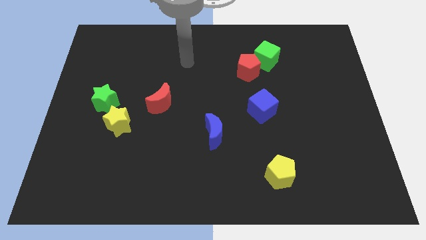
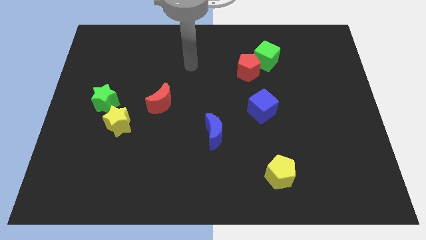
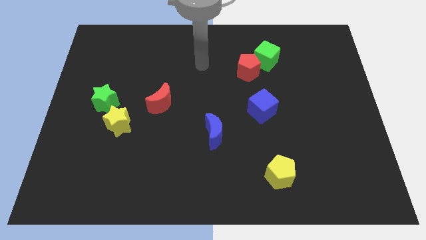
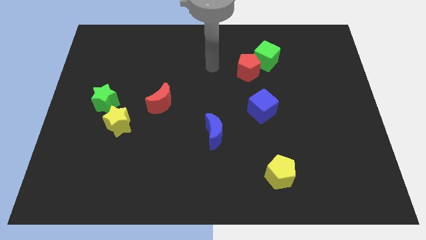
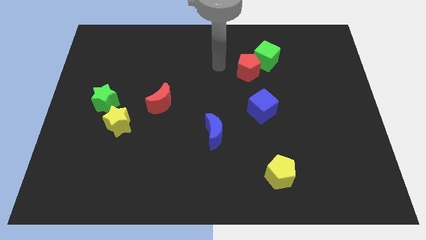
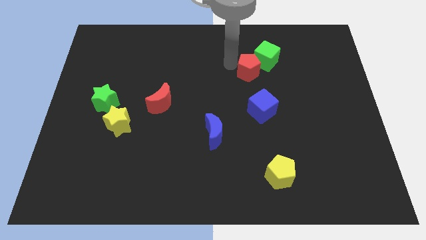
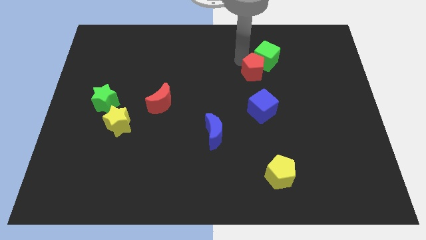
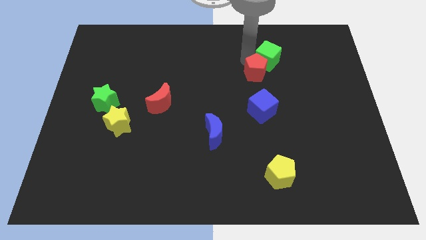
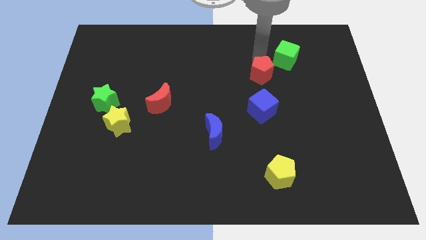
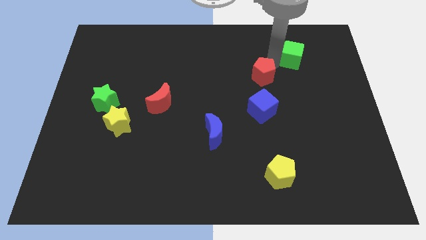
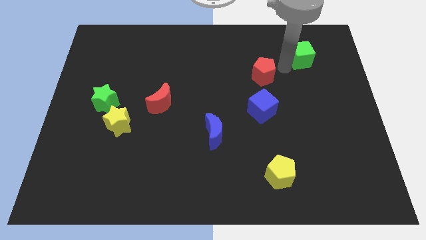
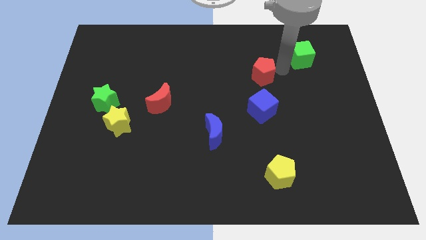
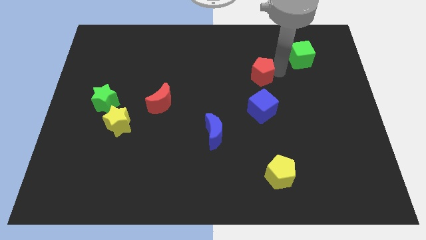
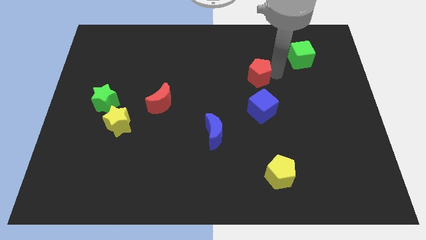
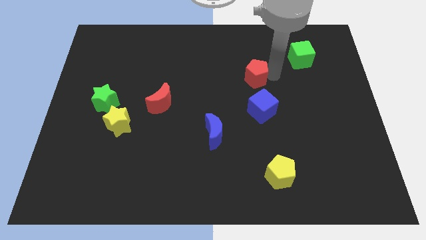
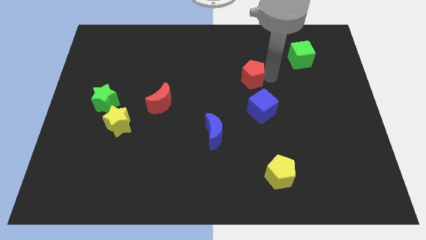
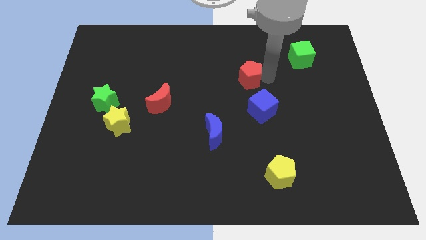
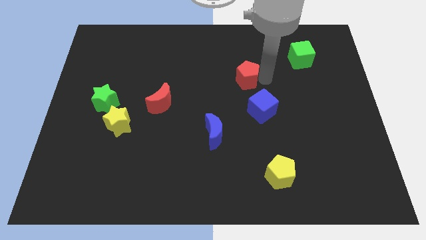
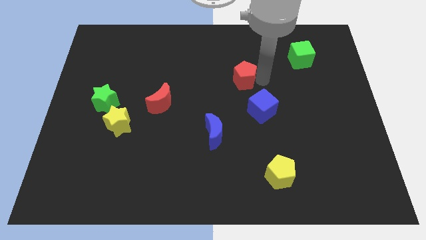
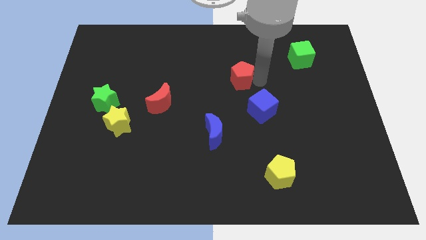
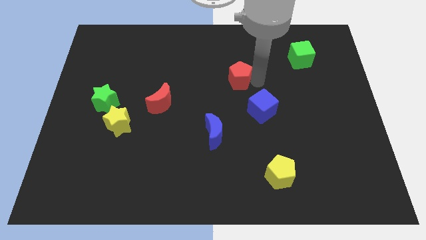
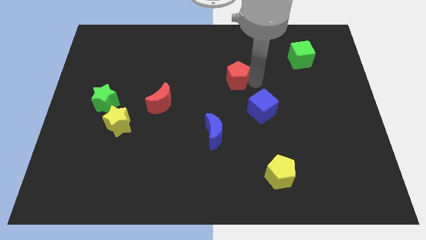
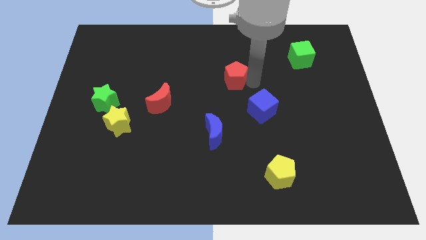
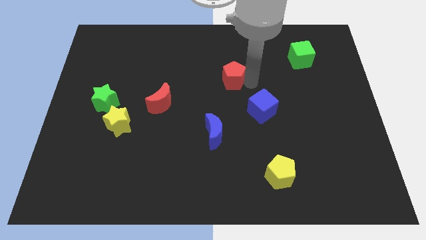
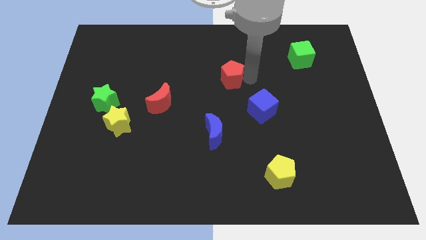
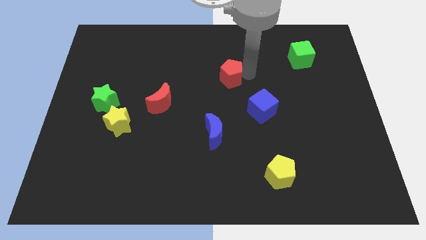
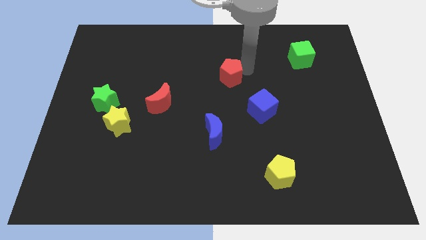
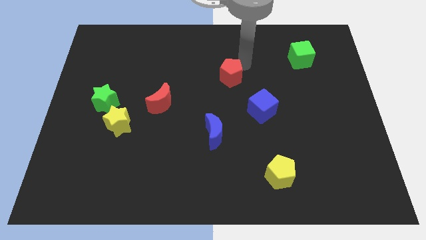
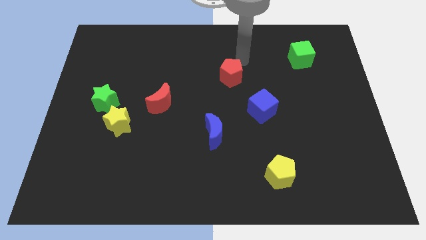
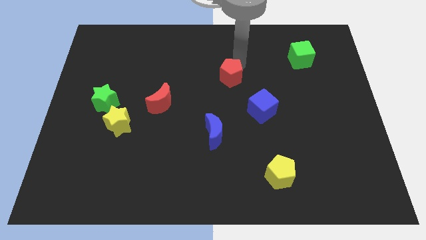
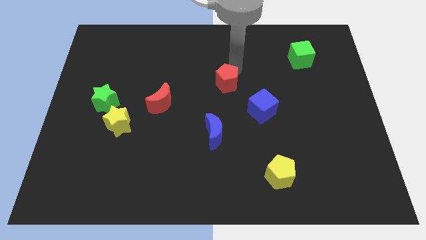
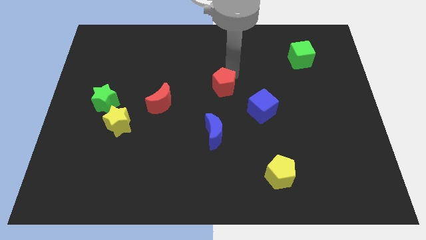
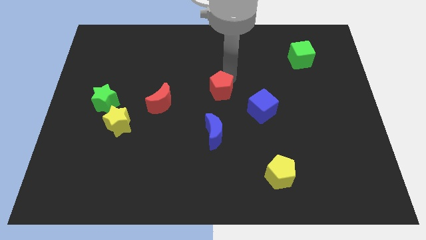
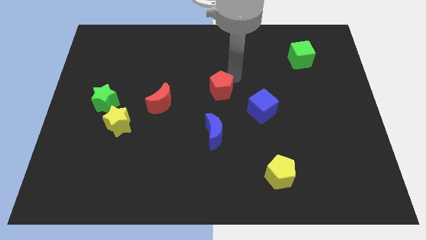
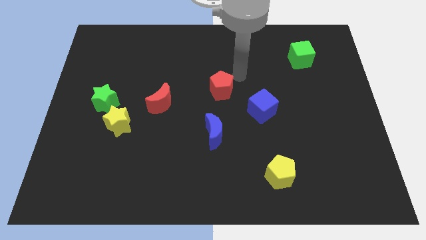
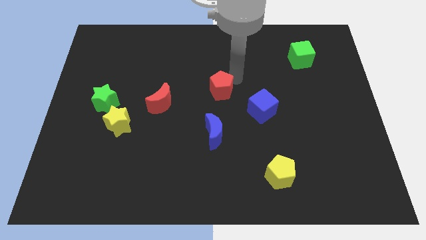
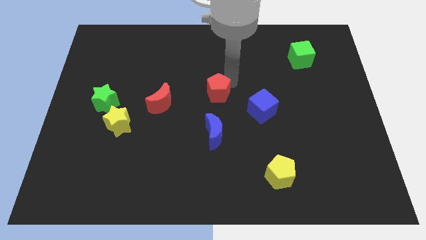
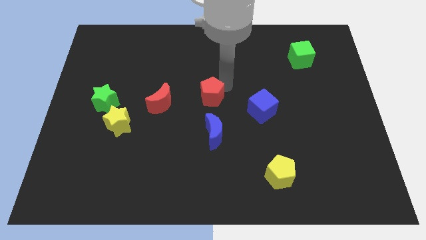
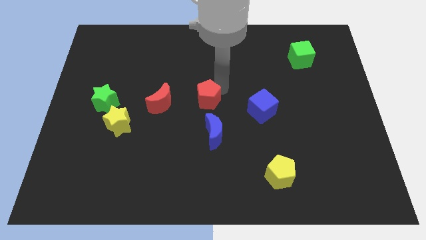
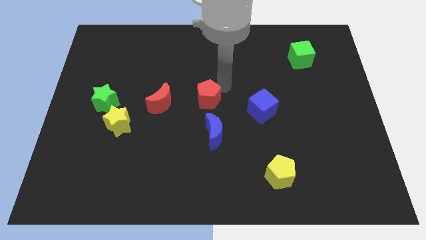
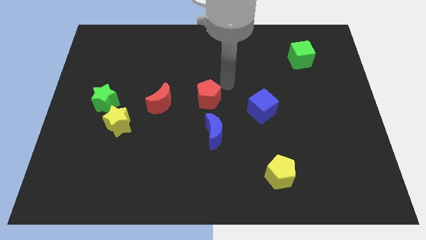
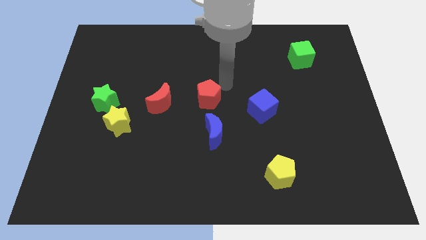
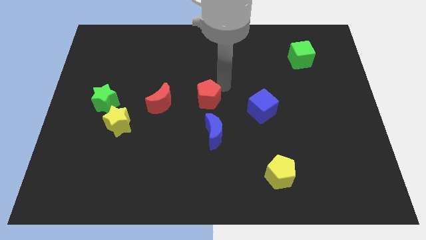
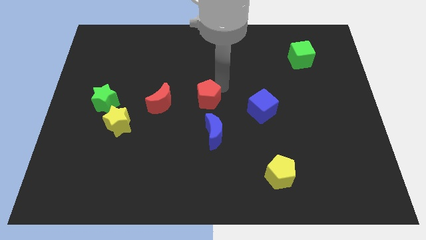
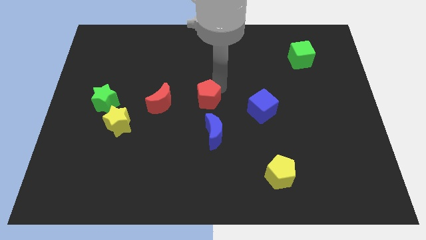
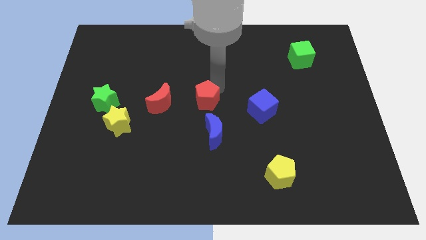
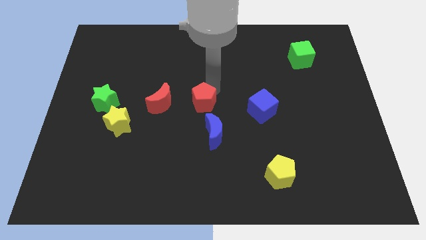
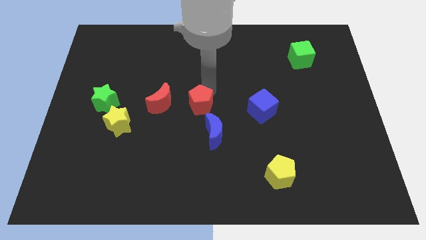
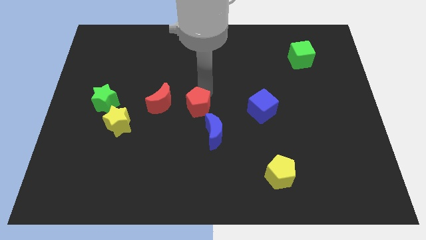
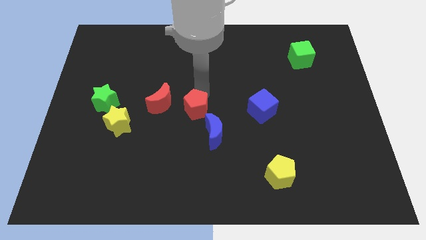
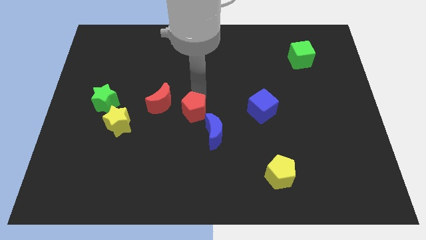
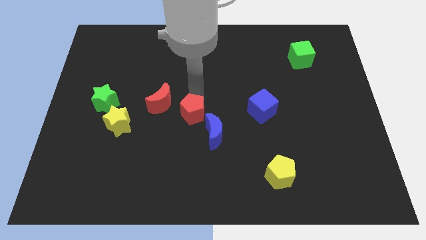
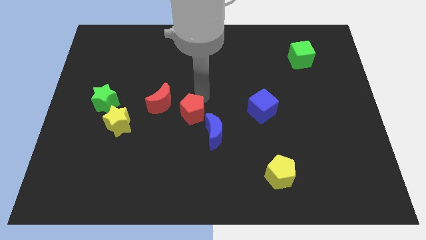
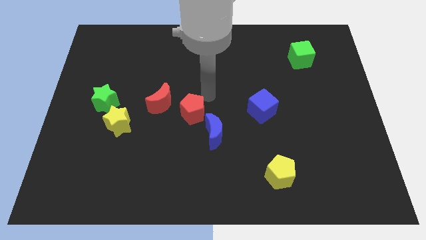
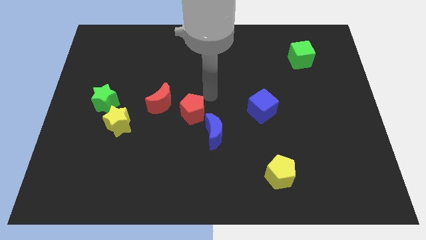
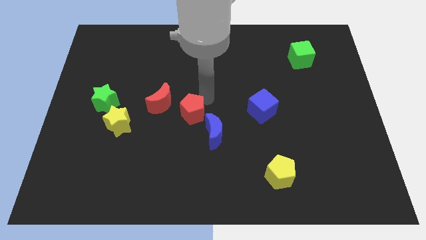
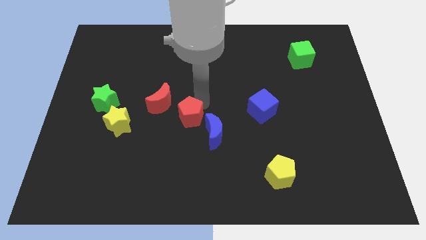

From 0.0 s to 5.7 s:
push the red pentagon downwards and then left

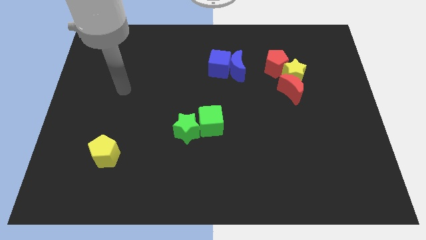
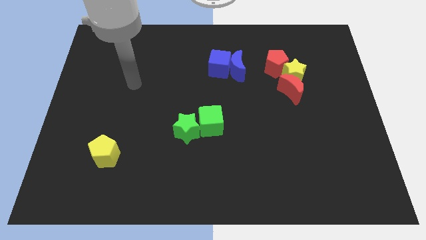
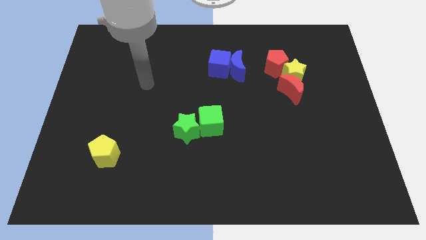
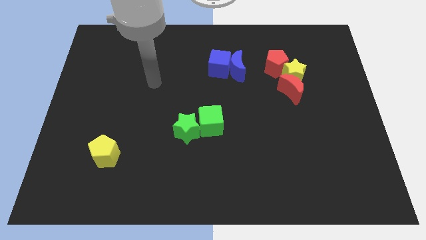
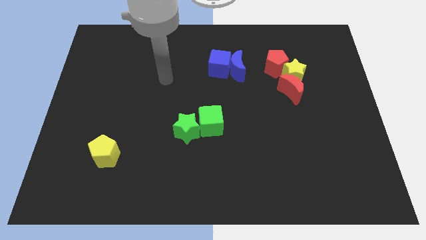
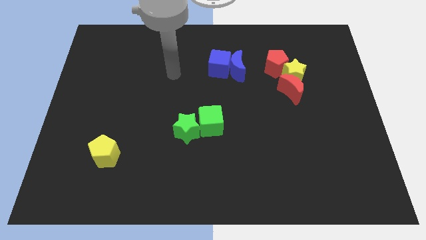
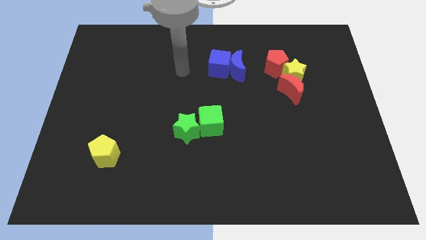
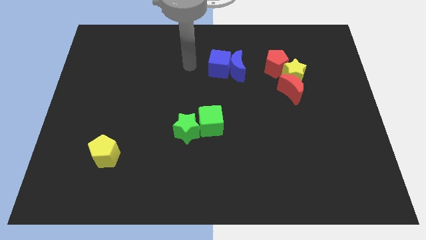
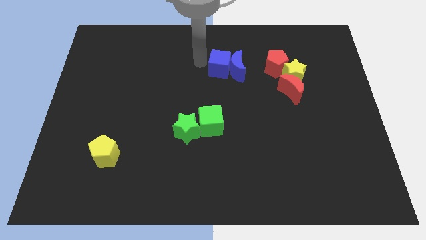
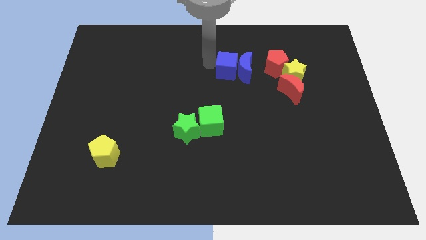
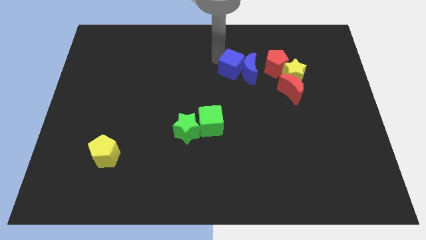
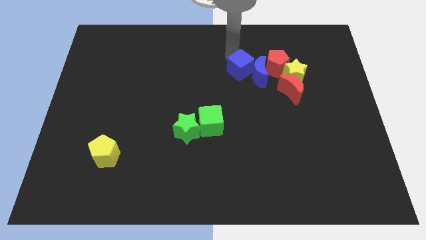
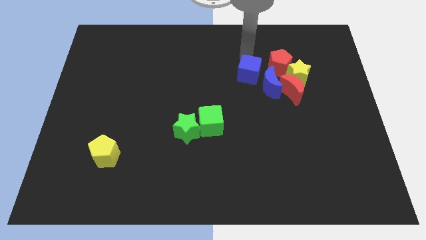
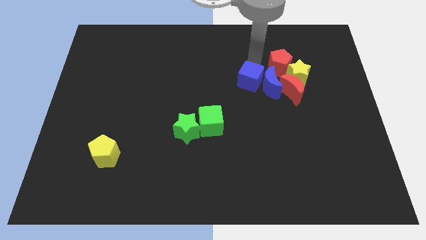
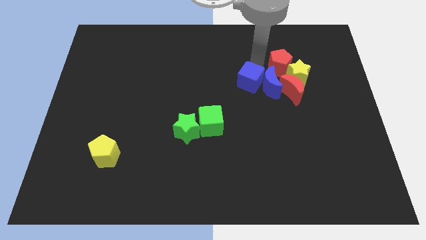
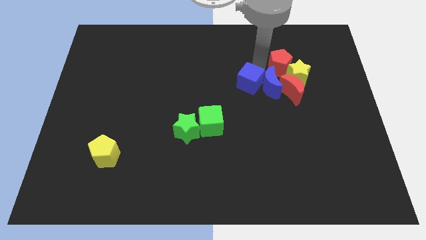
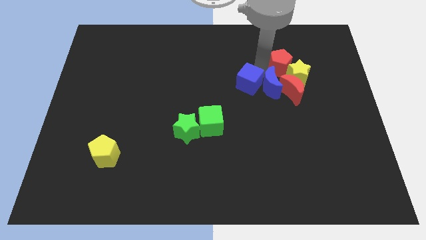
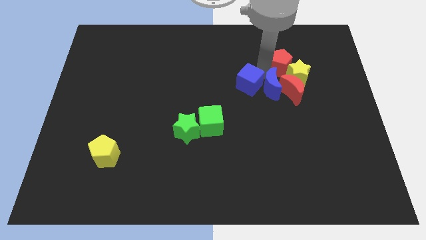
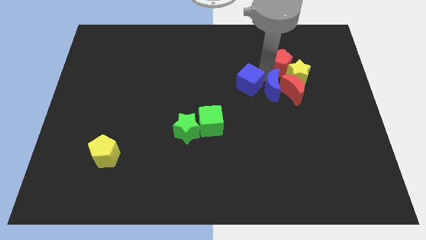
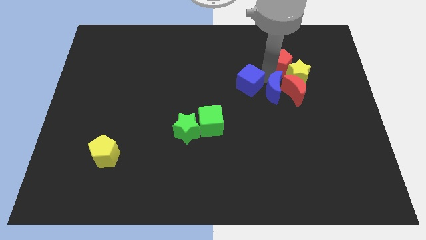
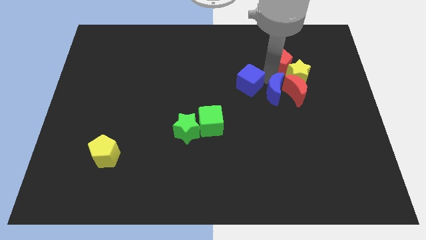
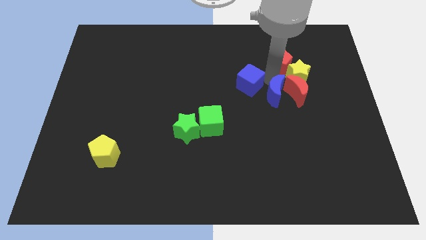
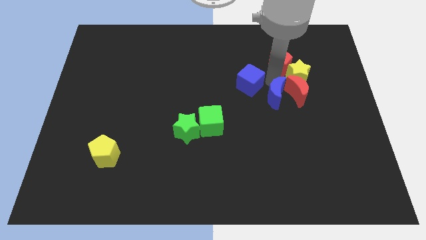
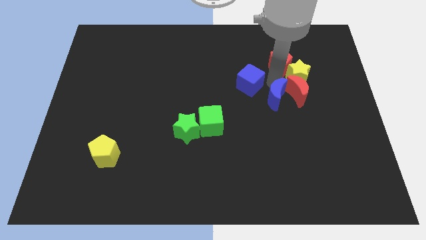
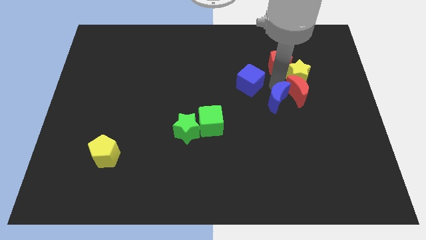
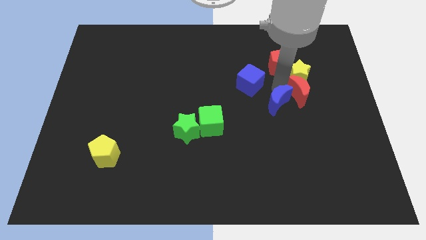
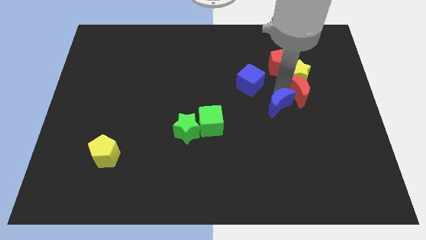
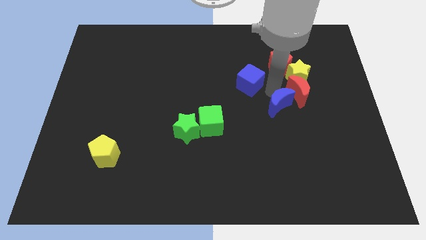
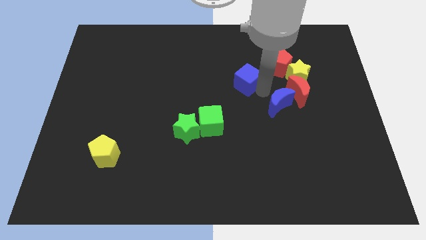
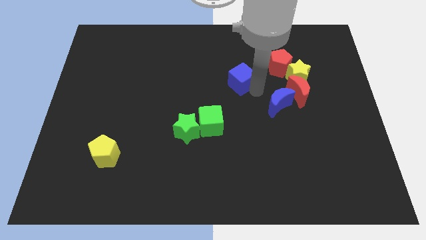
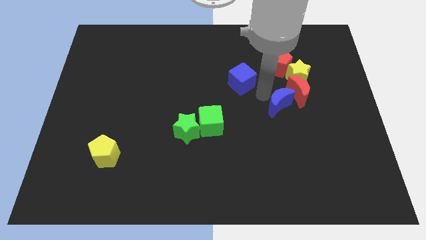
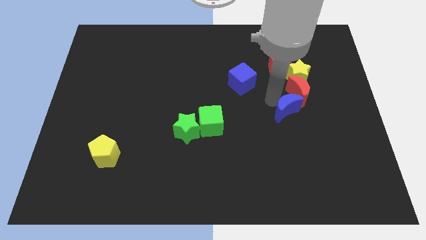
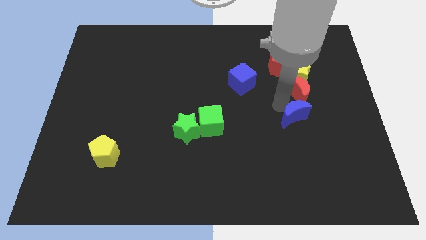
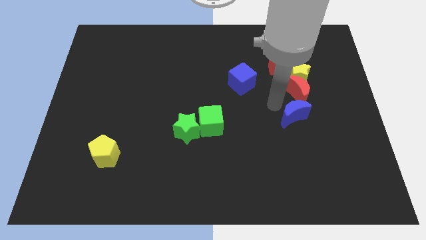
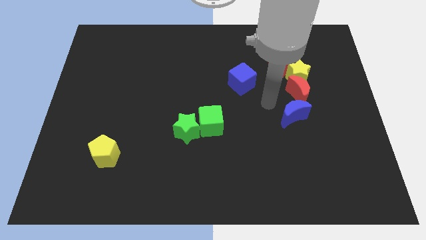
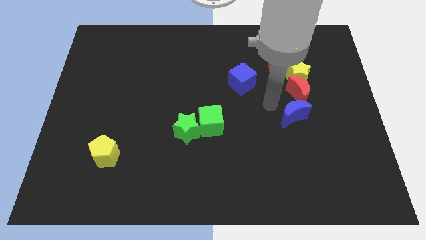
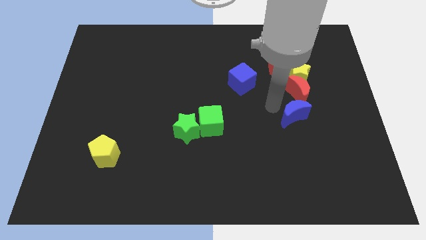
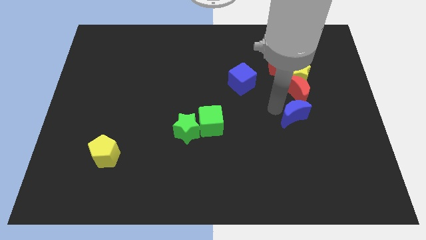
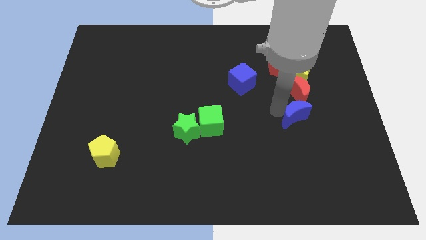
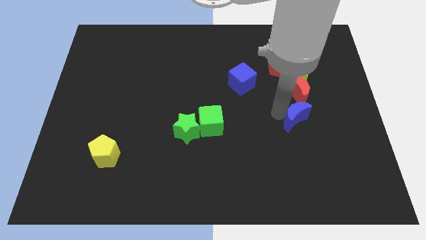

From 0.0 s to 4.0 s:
push the blue moon downwards and to the right
